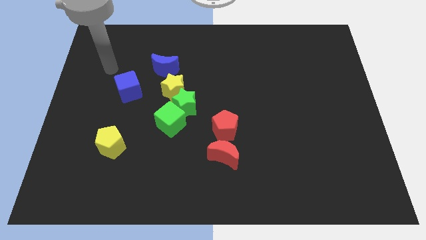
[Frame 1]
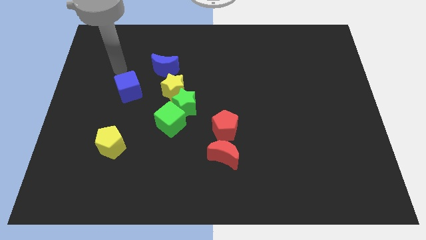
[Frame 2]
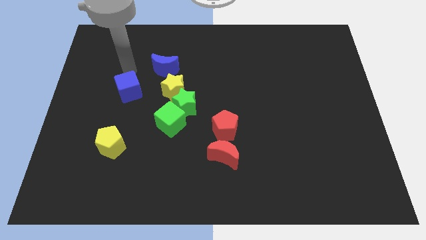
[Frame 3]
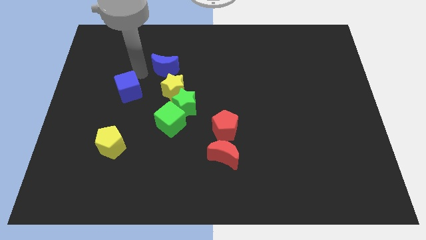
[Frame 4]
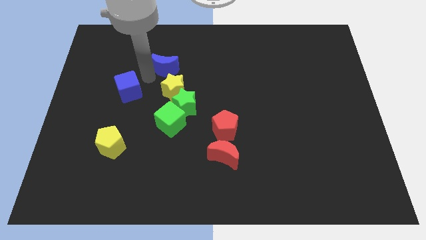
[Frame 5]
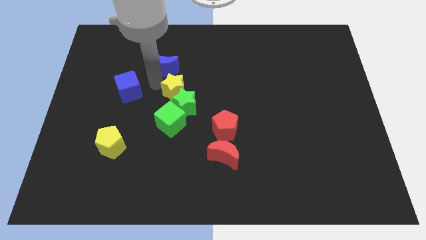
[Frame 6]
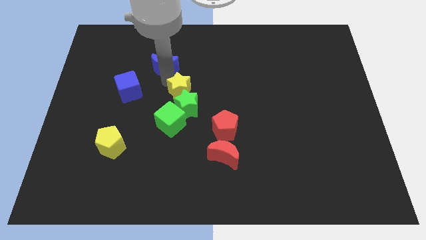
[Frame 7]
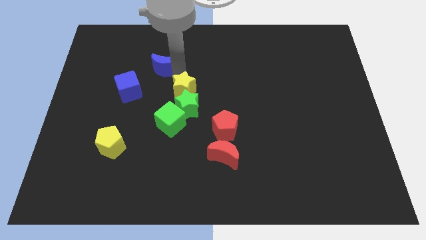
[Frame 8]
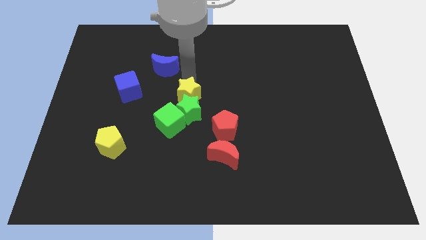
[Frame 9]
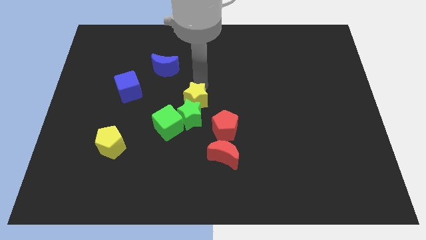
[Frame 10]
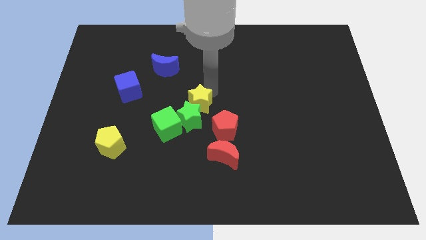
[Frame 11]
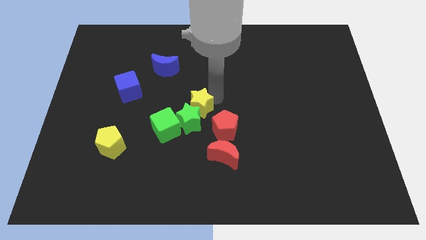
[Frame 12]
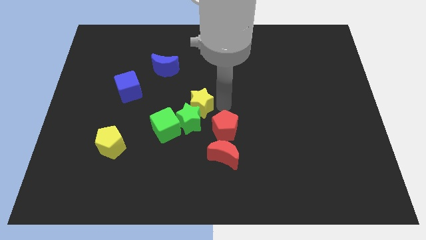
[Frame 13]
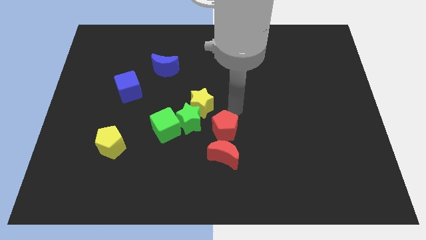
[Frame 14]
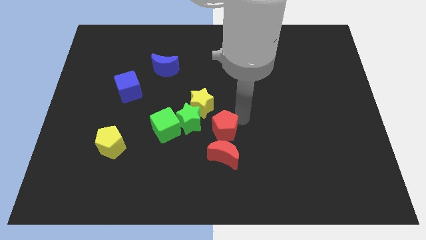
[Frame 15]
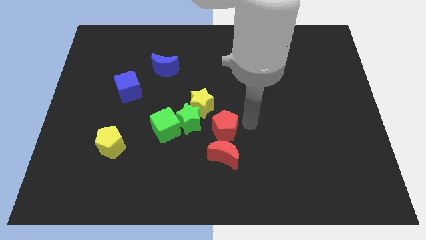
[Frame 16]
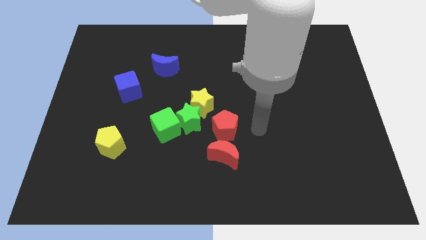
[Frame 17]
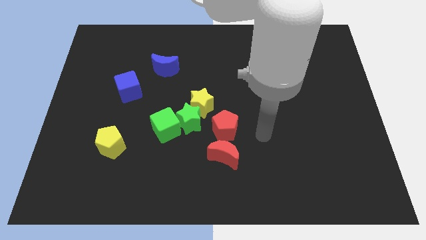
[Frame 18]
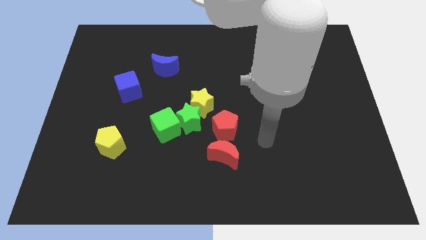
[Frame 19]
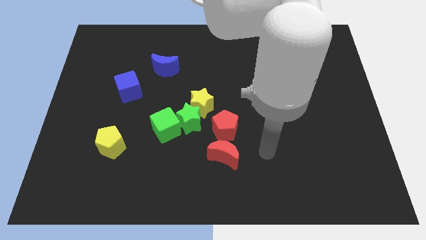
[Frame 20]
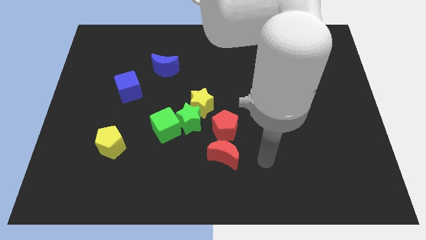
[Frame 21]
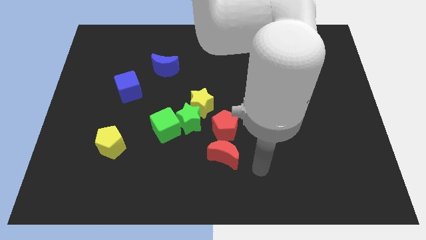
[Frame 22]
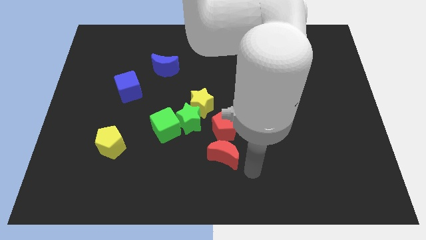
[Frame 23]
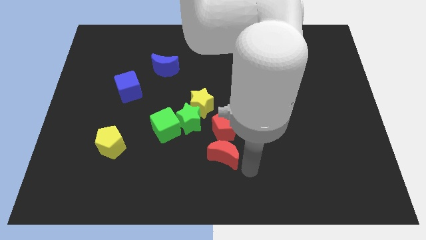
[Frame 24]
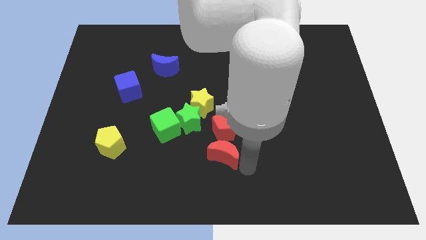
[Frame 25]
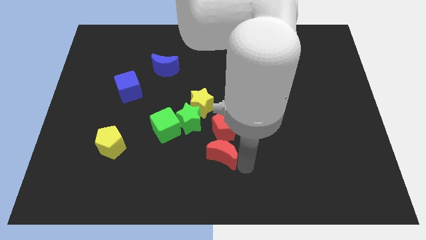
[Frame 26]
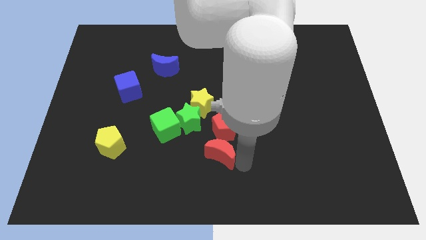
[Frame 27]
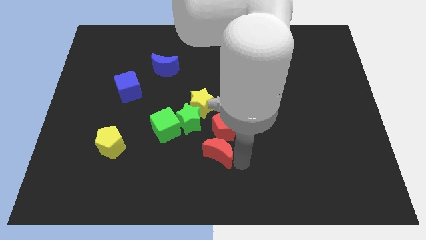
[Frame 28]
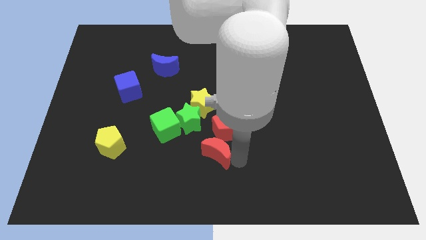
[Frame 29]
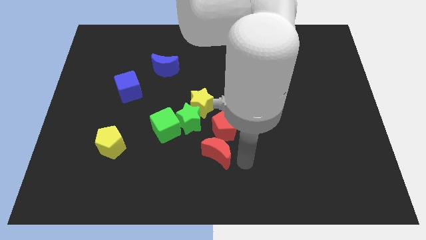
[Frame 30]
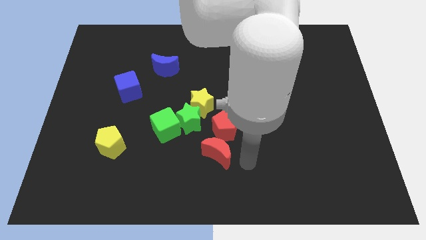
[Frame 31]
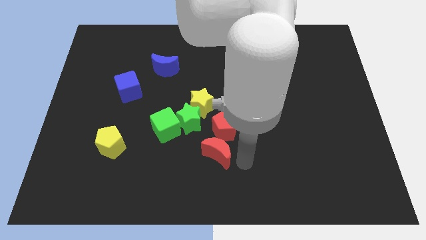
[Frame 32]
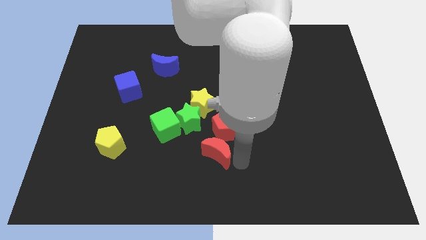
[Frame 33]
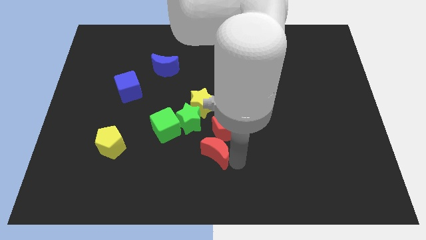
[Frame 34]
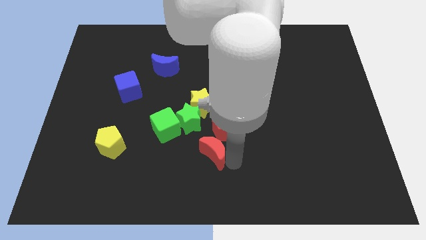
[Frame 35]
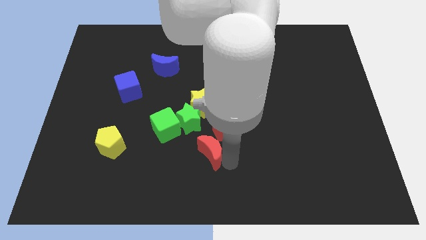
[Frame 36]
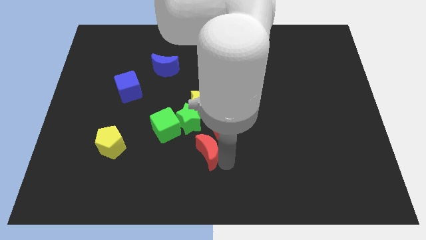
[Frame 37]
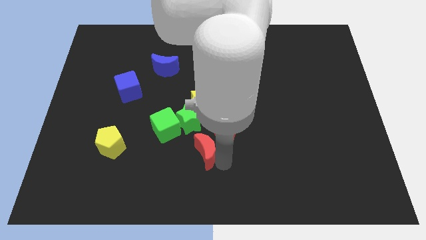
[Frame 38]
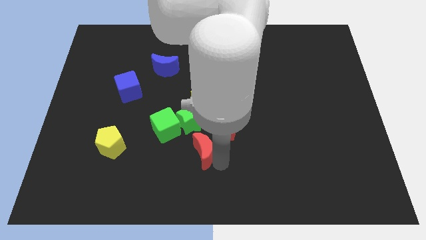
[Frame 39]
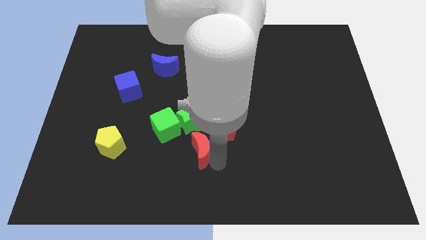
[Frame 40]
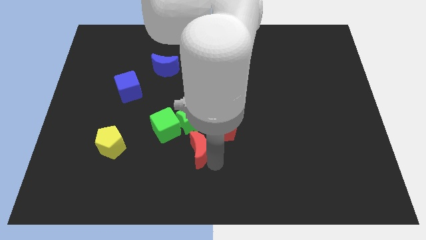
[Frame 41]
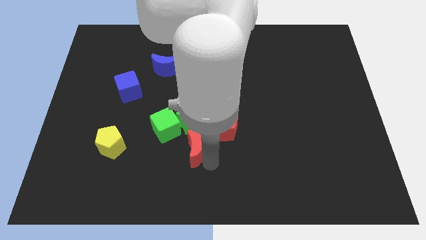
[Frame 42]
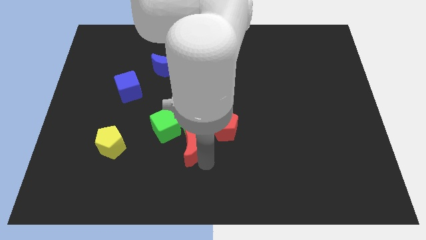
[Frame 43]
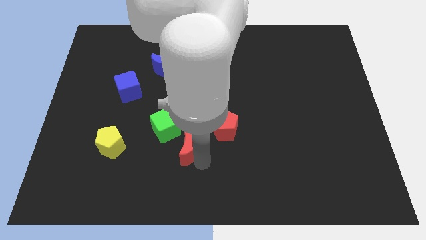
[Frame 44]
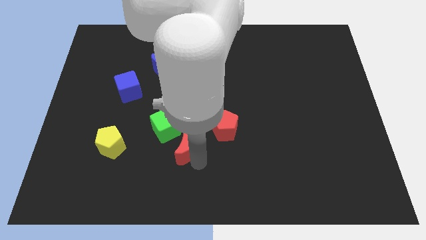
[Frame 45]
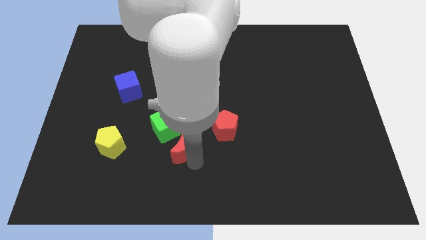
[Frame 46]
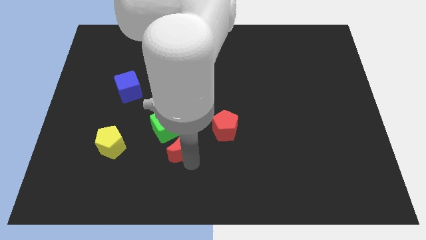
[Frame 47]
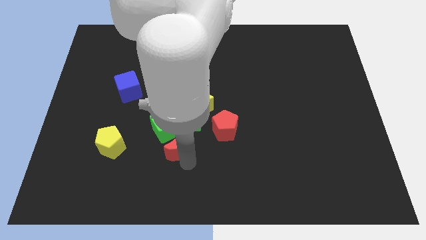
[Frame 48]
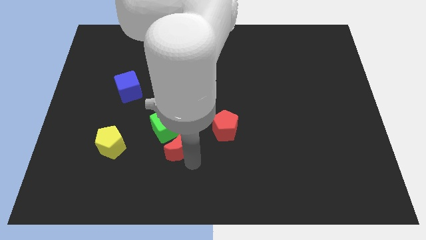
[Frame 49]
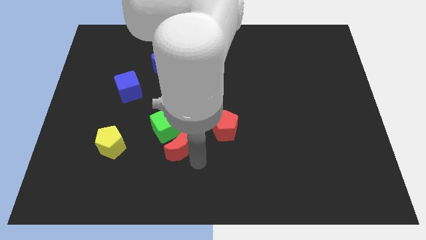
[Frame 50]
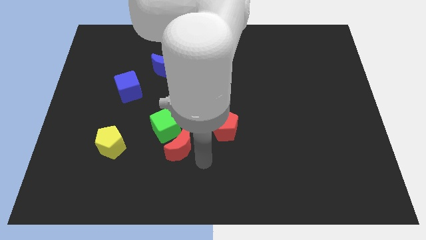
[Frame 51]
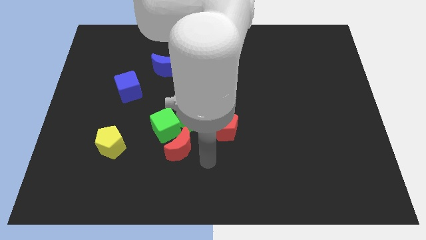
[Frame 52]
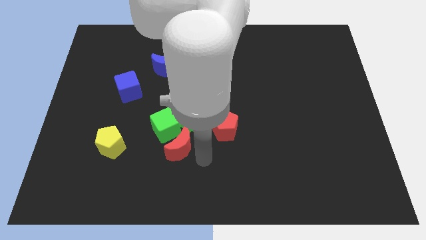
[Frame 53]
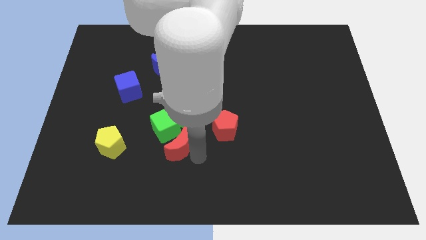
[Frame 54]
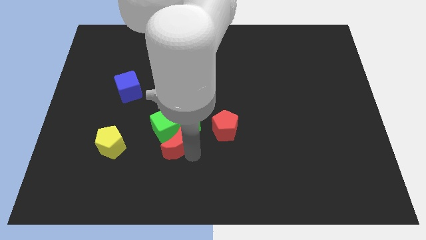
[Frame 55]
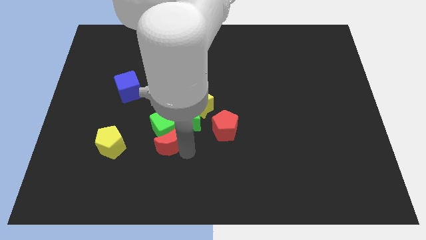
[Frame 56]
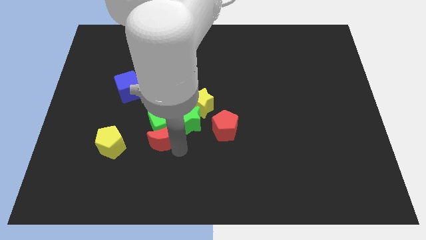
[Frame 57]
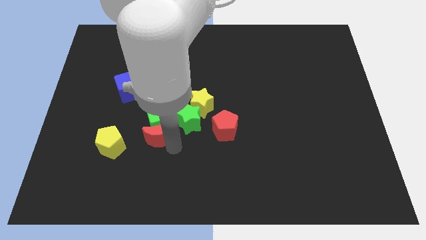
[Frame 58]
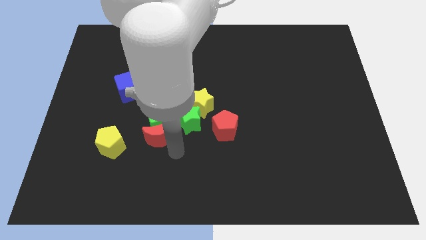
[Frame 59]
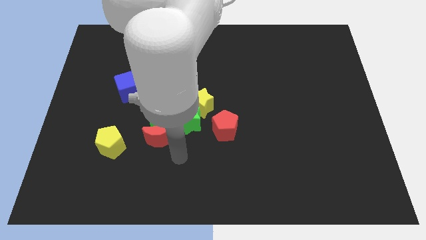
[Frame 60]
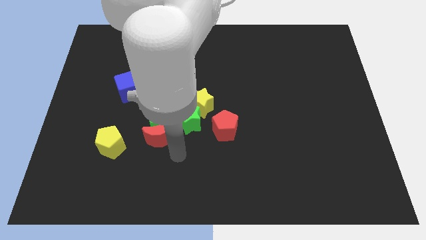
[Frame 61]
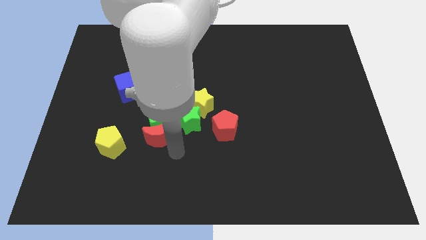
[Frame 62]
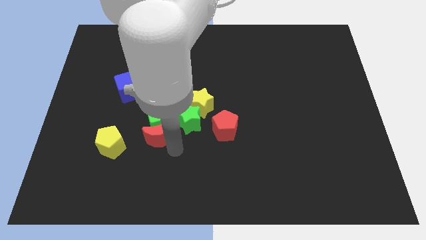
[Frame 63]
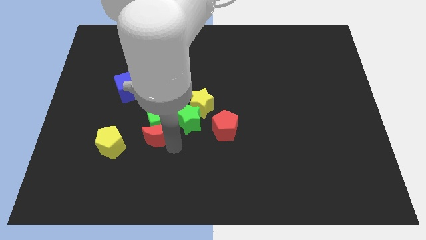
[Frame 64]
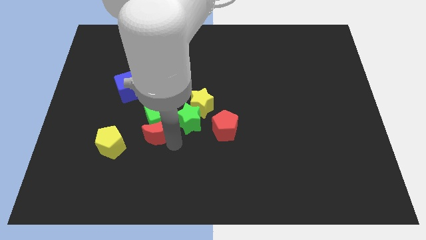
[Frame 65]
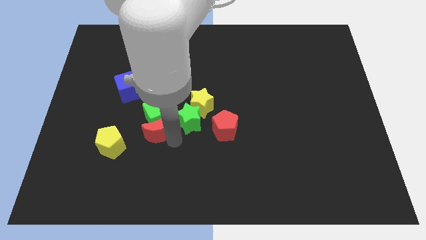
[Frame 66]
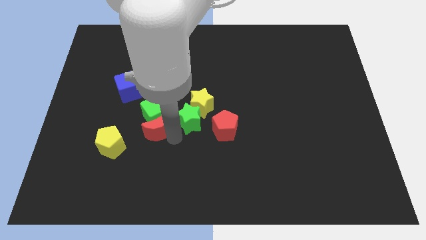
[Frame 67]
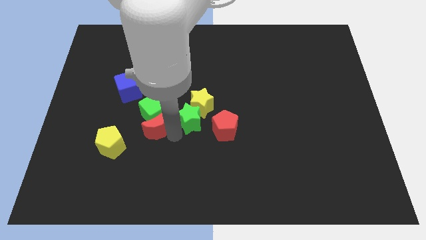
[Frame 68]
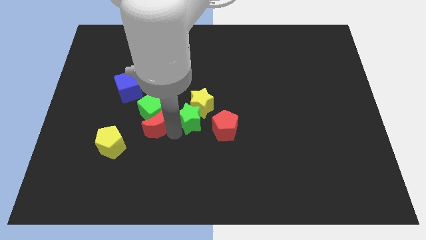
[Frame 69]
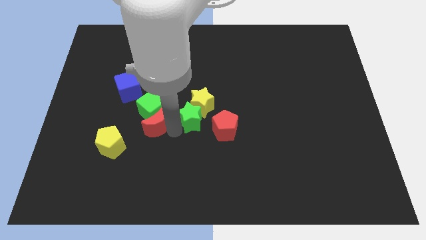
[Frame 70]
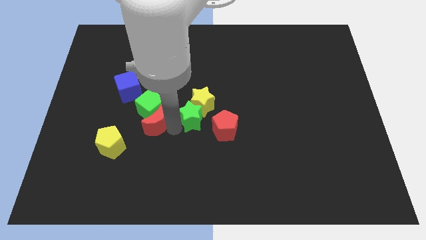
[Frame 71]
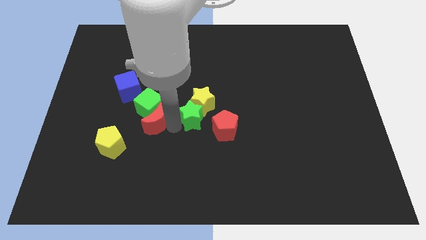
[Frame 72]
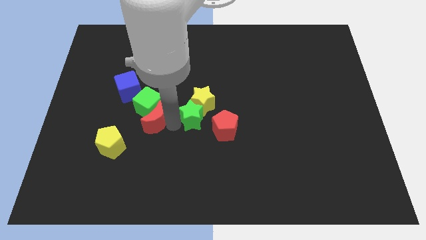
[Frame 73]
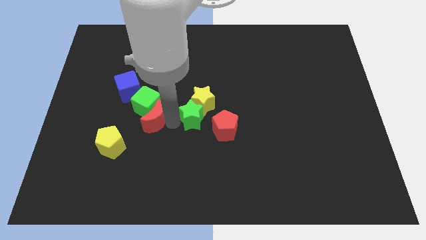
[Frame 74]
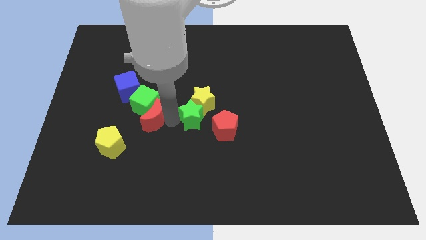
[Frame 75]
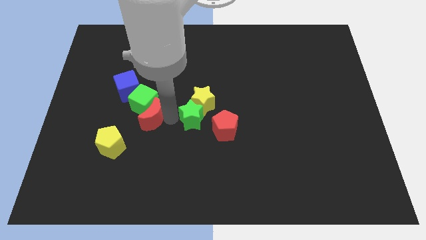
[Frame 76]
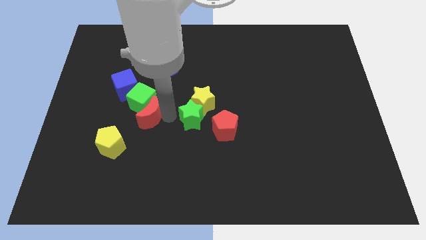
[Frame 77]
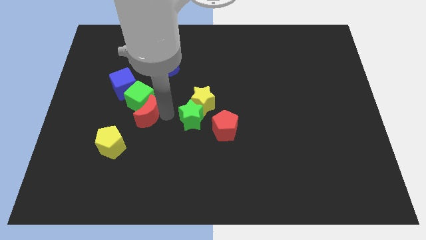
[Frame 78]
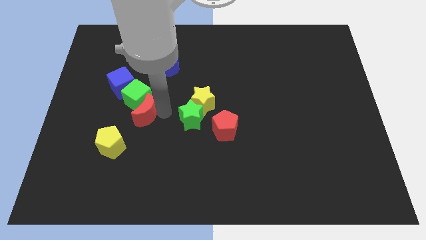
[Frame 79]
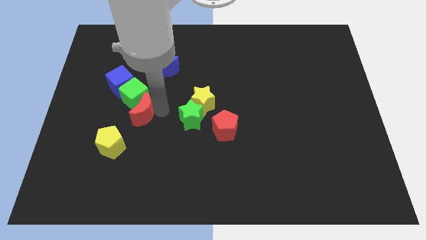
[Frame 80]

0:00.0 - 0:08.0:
slide the red moon upwards and to the left diagonally
